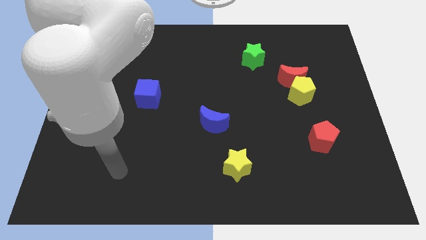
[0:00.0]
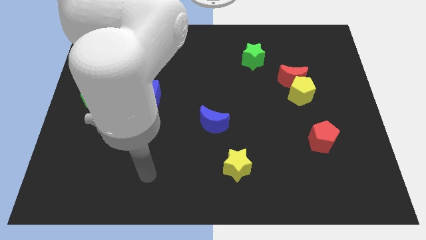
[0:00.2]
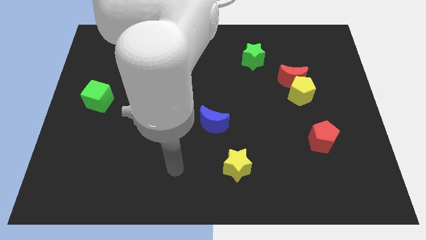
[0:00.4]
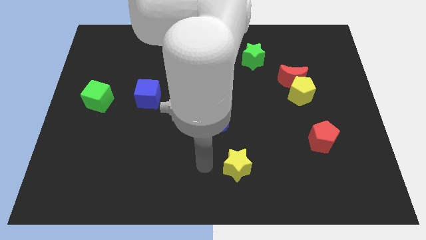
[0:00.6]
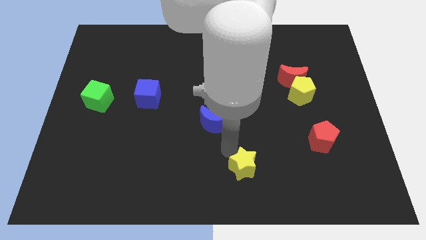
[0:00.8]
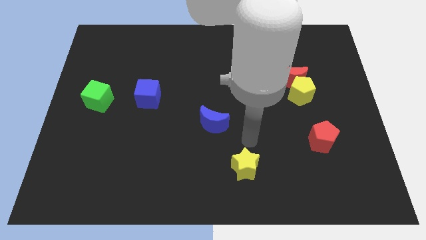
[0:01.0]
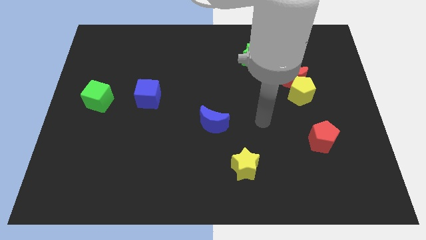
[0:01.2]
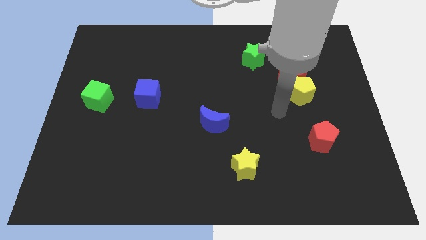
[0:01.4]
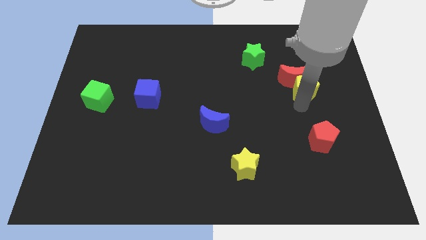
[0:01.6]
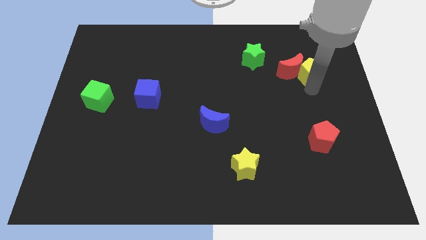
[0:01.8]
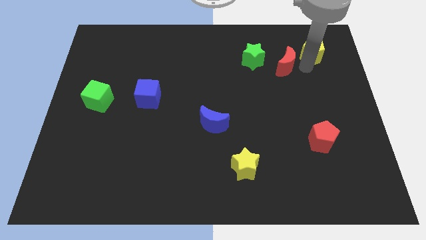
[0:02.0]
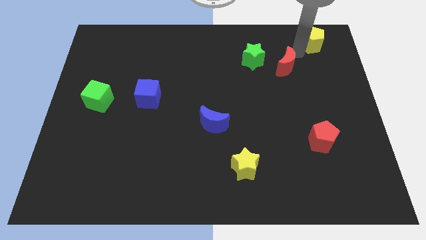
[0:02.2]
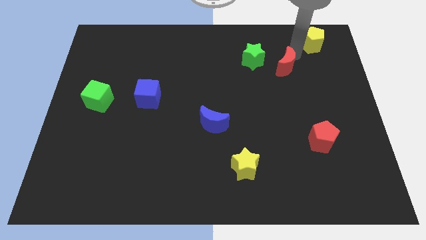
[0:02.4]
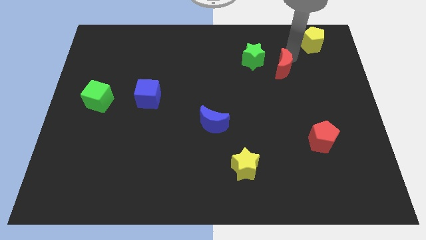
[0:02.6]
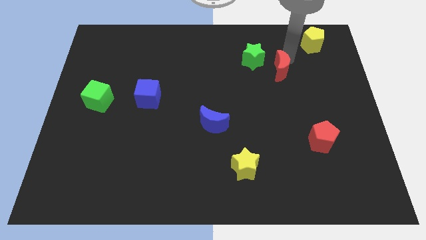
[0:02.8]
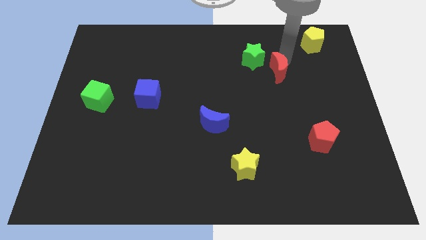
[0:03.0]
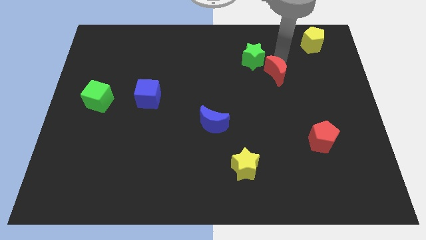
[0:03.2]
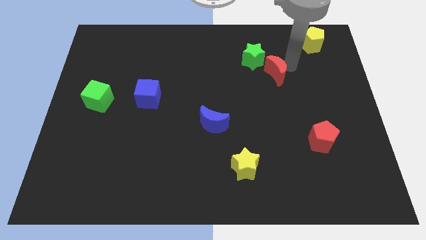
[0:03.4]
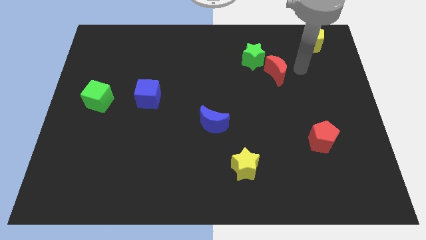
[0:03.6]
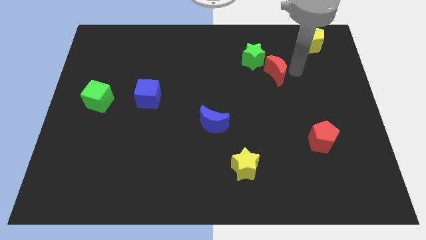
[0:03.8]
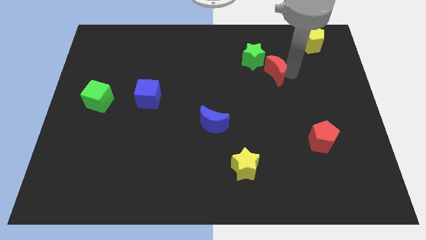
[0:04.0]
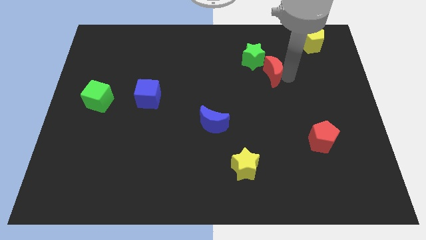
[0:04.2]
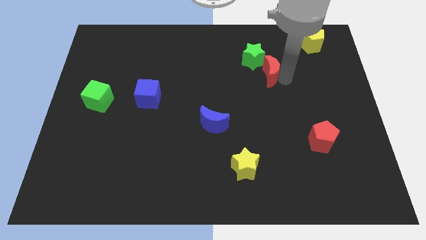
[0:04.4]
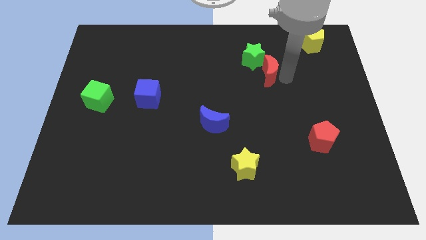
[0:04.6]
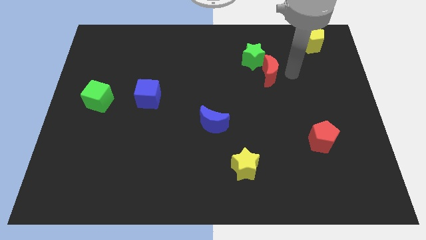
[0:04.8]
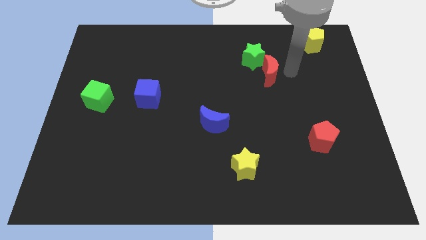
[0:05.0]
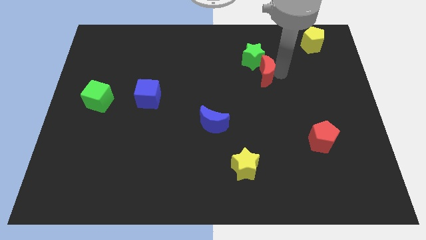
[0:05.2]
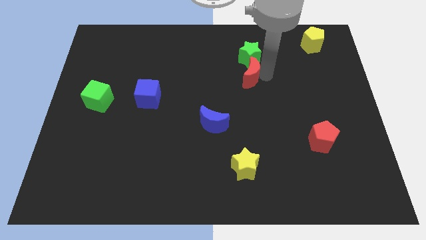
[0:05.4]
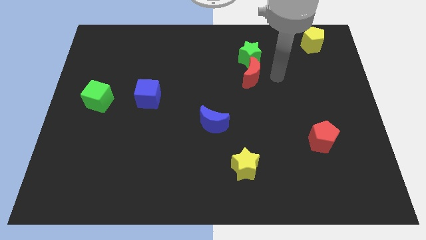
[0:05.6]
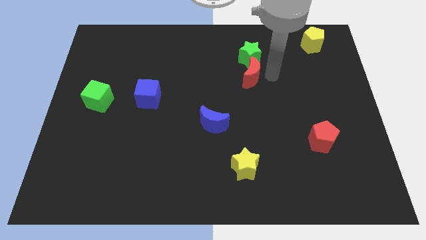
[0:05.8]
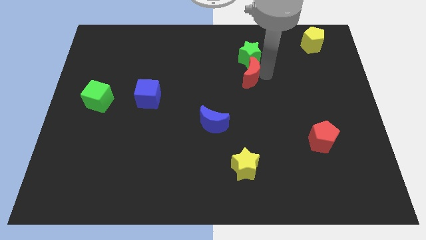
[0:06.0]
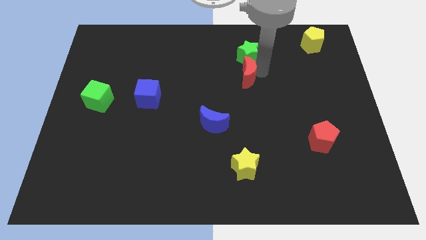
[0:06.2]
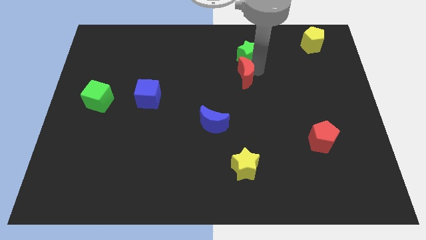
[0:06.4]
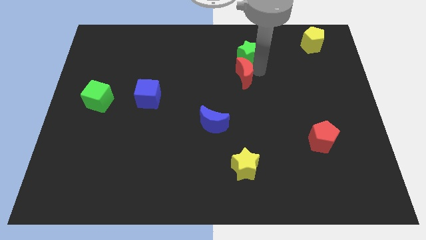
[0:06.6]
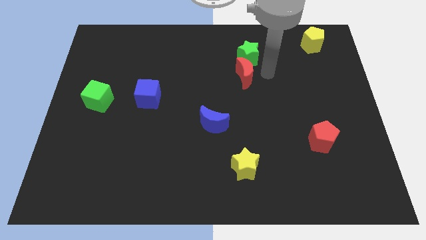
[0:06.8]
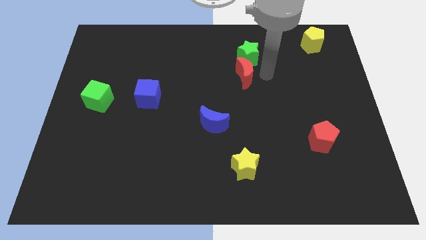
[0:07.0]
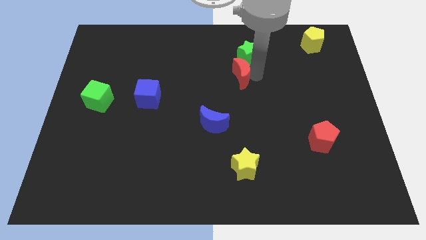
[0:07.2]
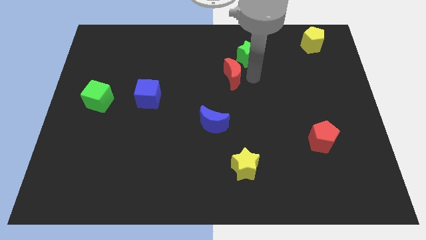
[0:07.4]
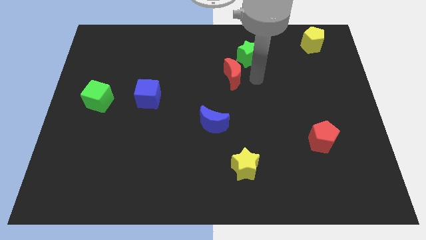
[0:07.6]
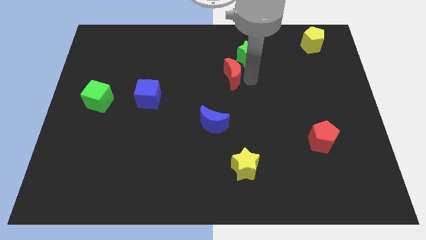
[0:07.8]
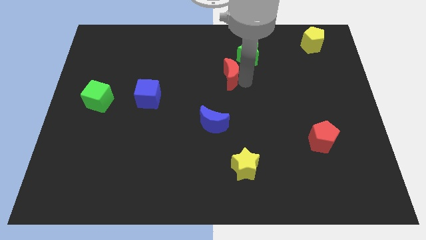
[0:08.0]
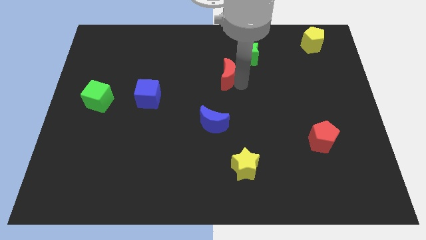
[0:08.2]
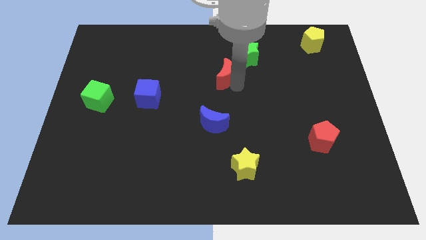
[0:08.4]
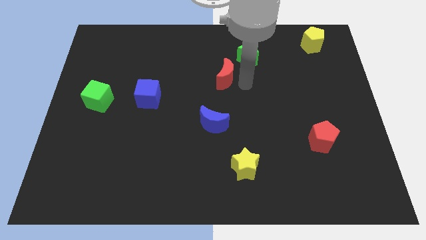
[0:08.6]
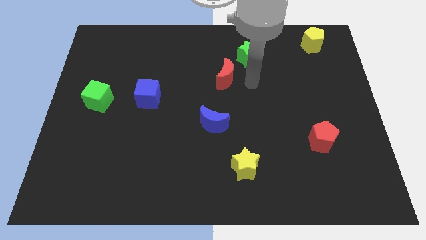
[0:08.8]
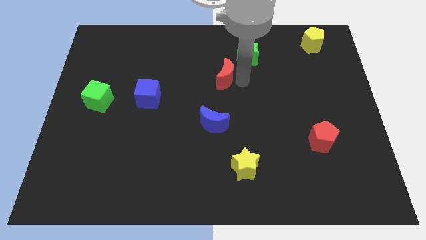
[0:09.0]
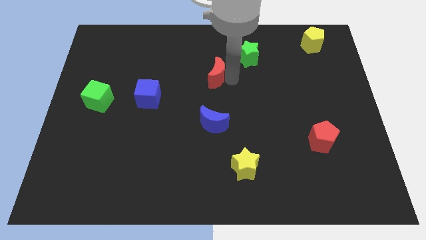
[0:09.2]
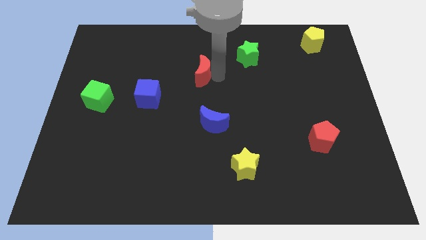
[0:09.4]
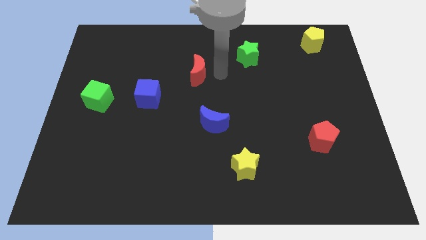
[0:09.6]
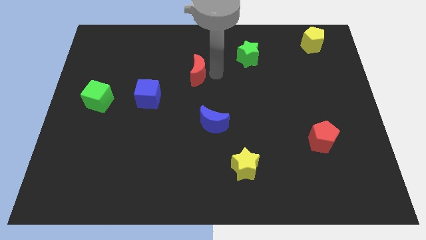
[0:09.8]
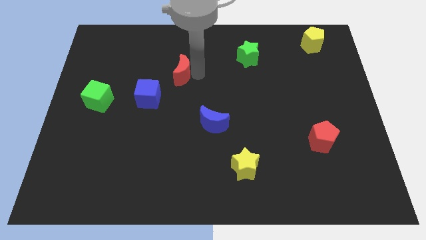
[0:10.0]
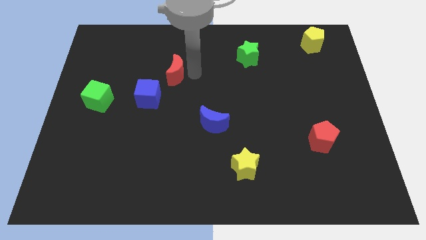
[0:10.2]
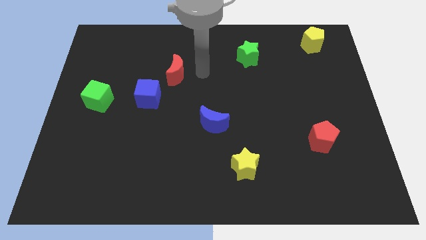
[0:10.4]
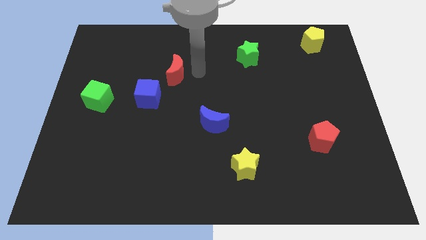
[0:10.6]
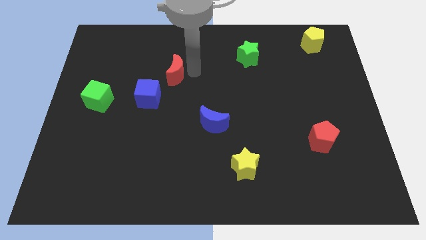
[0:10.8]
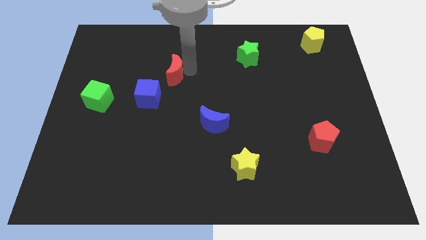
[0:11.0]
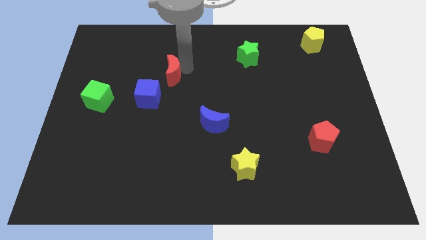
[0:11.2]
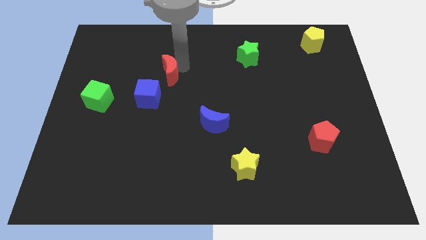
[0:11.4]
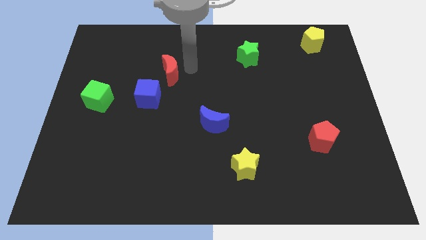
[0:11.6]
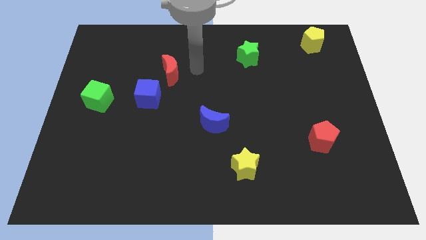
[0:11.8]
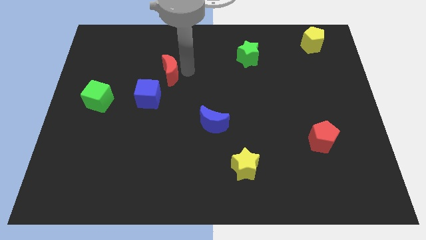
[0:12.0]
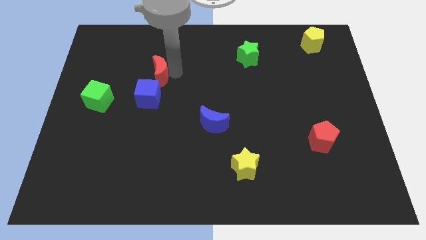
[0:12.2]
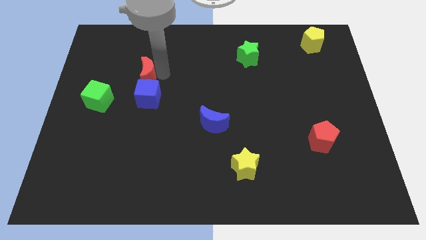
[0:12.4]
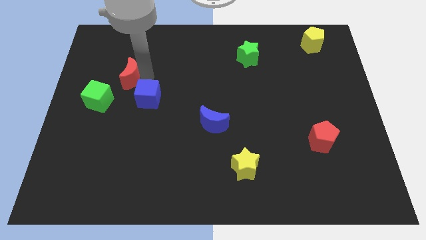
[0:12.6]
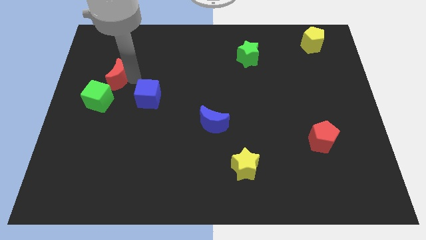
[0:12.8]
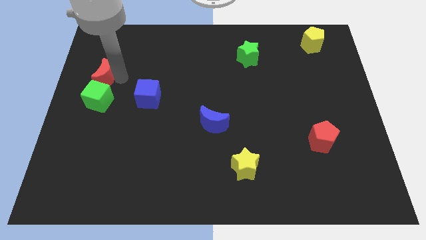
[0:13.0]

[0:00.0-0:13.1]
push the red moon to the center left
